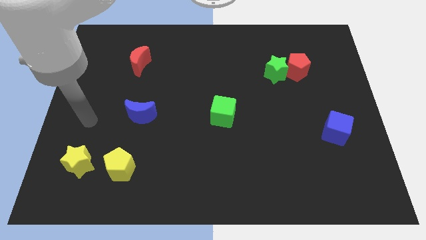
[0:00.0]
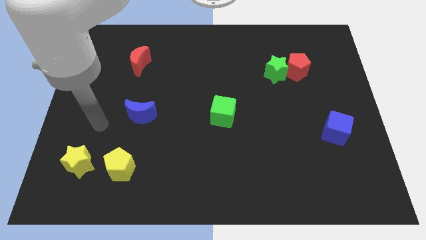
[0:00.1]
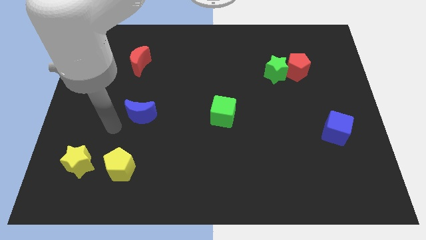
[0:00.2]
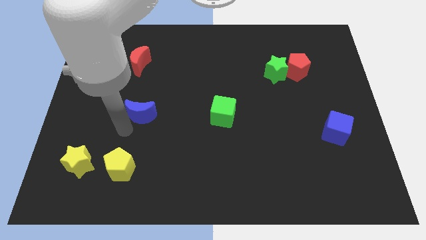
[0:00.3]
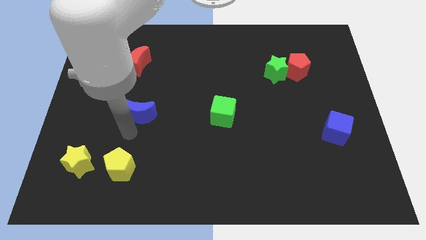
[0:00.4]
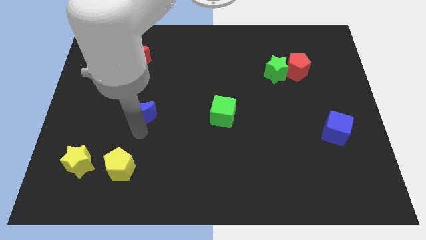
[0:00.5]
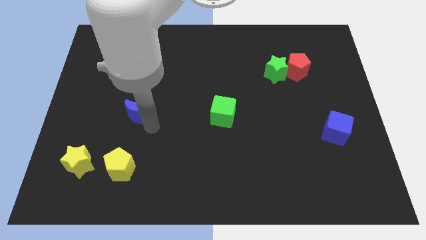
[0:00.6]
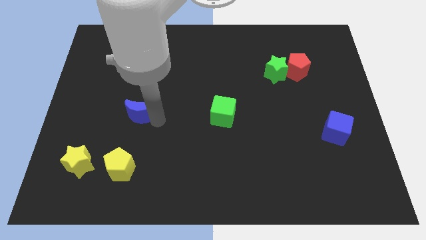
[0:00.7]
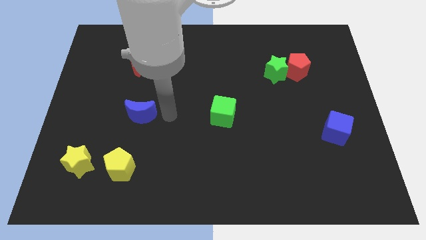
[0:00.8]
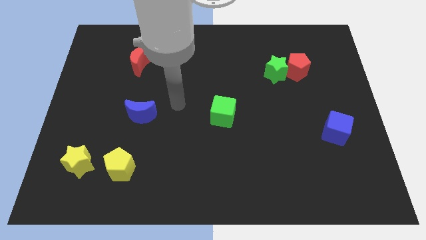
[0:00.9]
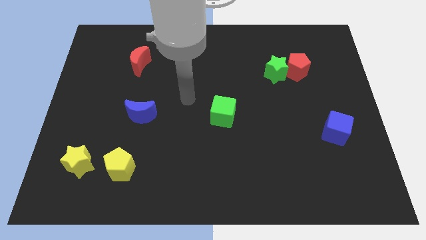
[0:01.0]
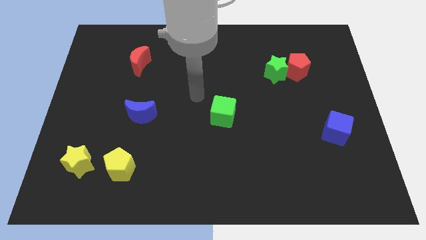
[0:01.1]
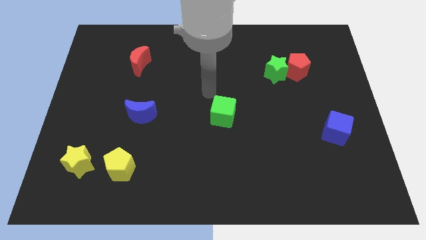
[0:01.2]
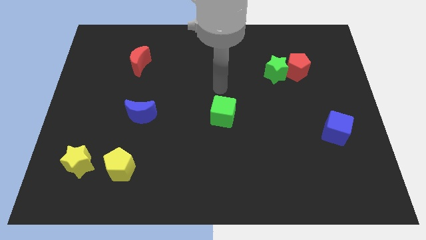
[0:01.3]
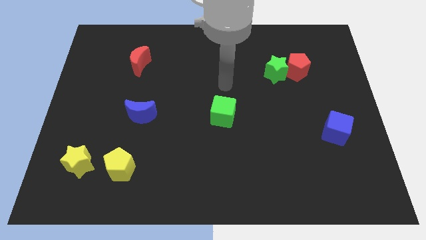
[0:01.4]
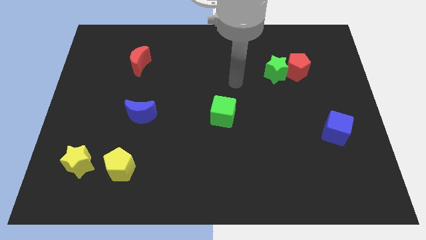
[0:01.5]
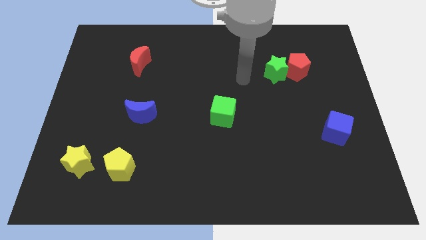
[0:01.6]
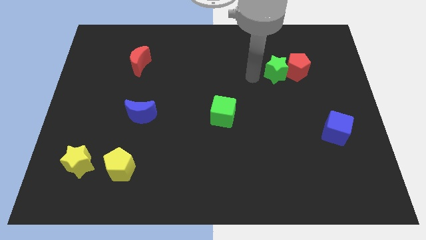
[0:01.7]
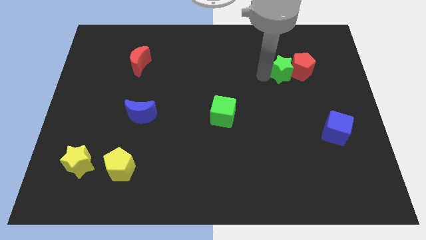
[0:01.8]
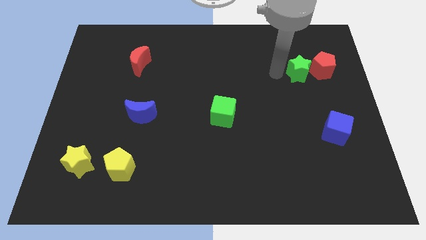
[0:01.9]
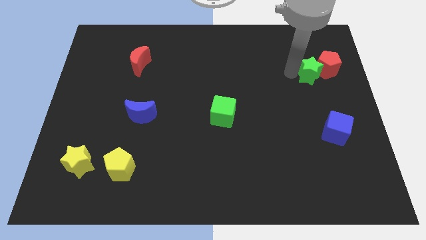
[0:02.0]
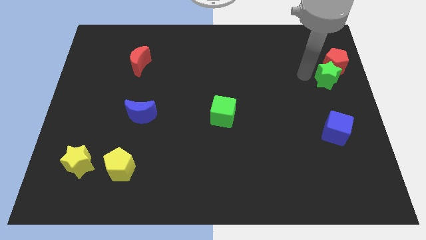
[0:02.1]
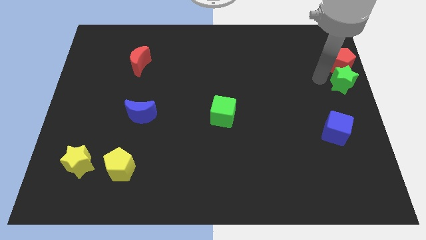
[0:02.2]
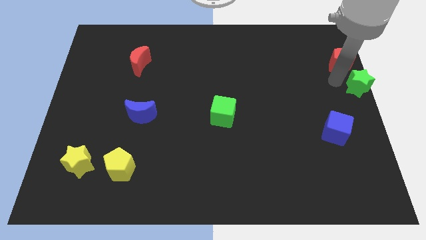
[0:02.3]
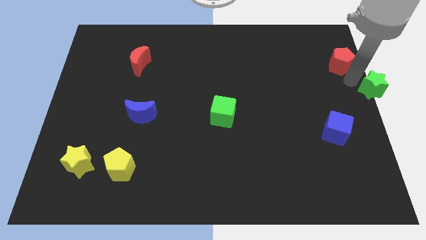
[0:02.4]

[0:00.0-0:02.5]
pull the red pentagon apart from the green star

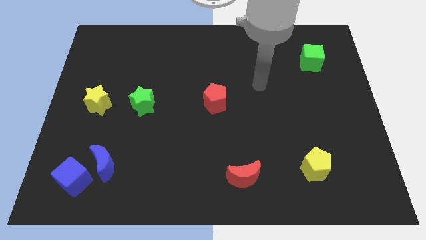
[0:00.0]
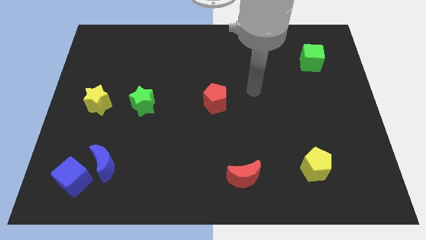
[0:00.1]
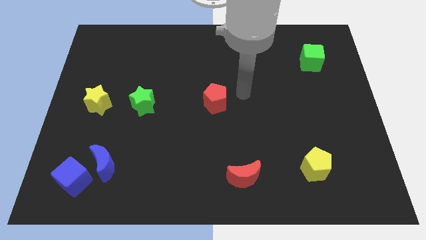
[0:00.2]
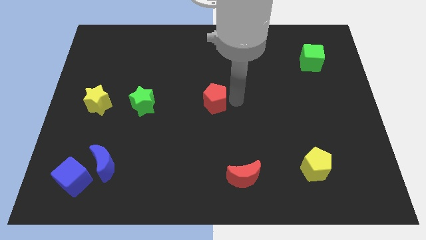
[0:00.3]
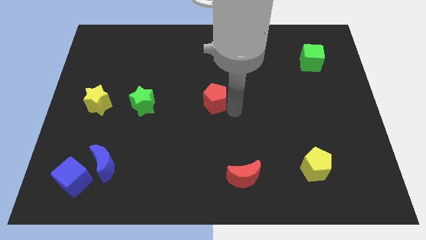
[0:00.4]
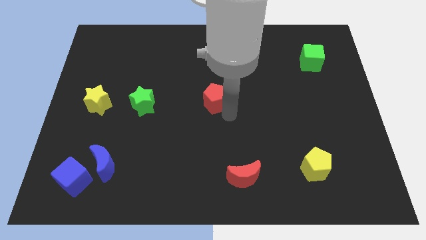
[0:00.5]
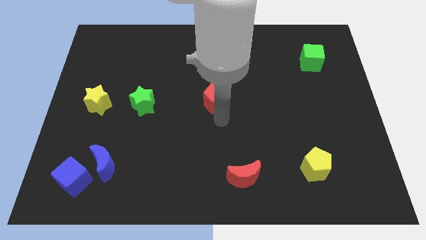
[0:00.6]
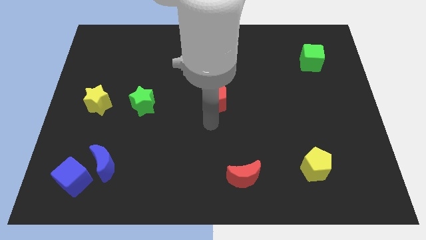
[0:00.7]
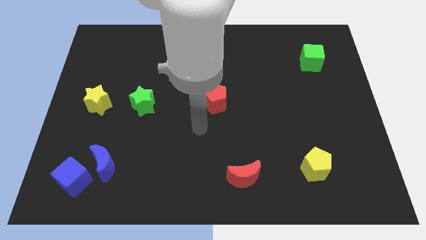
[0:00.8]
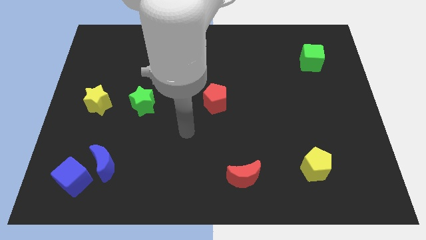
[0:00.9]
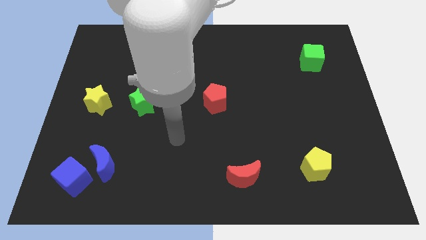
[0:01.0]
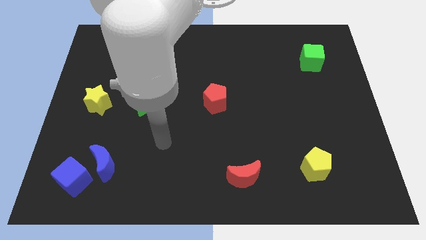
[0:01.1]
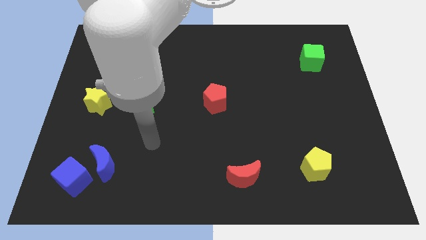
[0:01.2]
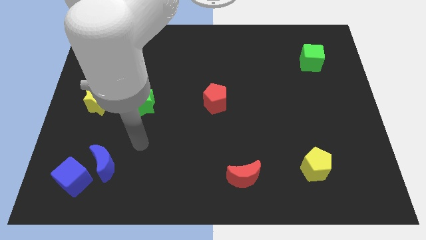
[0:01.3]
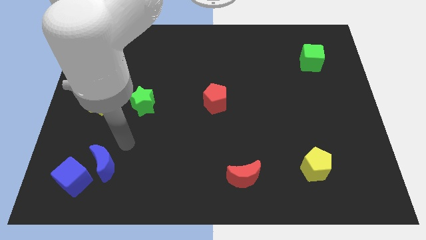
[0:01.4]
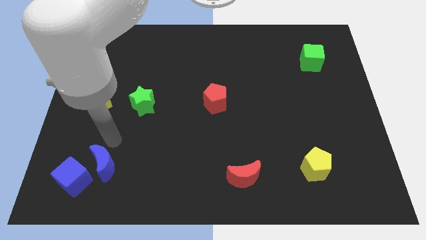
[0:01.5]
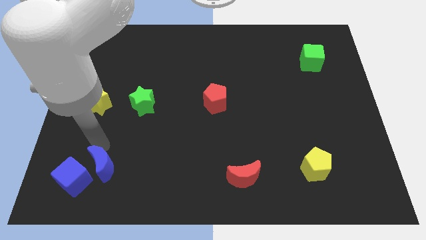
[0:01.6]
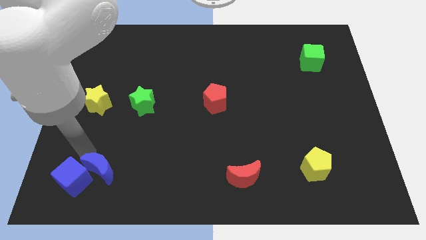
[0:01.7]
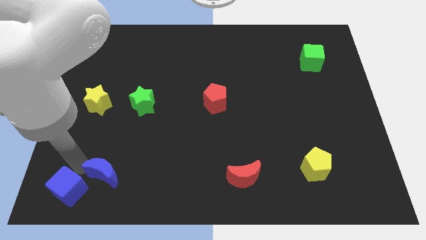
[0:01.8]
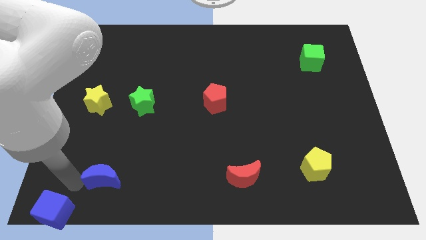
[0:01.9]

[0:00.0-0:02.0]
pull the blue moon apart from the blue cube

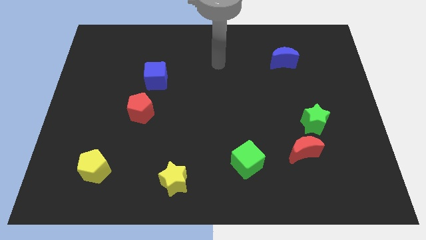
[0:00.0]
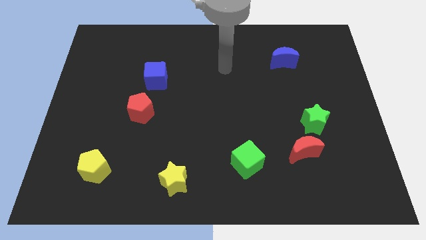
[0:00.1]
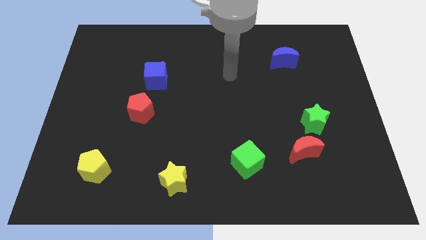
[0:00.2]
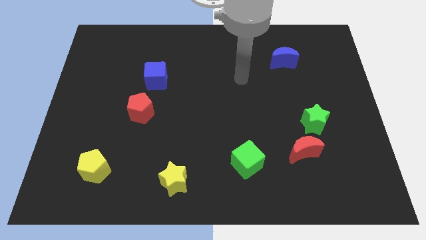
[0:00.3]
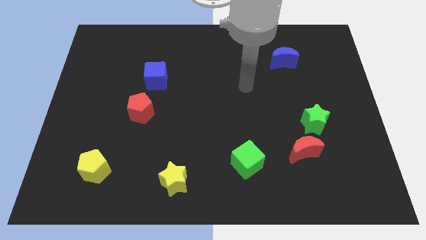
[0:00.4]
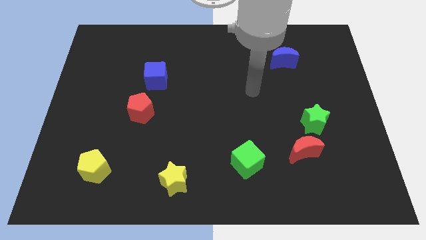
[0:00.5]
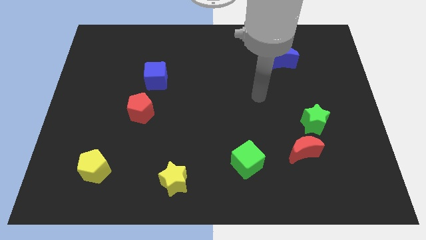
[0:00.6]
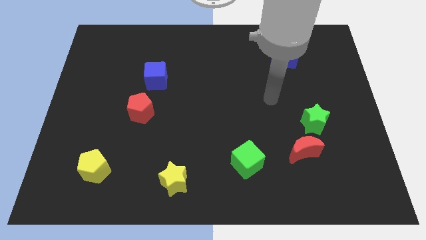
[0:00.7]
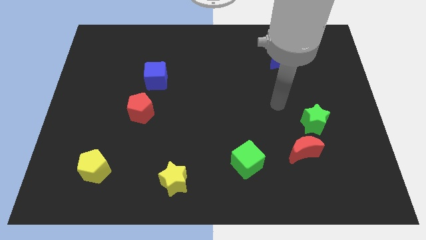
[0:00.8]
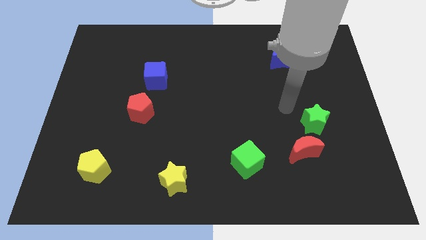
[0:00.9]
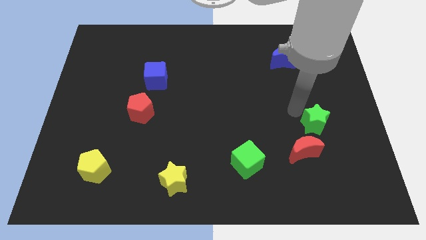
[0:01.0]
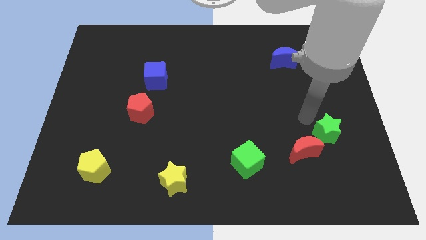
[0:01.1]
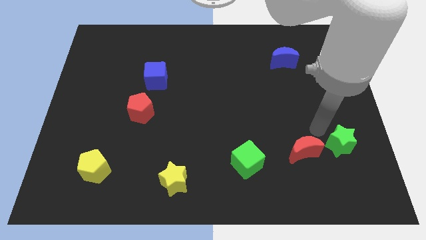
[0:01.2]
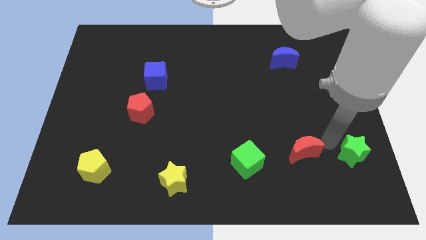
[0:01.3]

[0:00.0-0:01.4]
move the red moon away from the green star

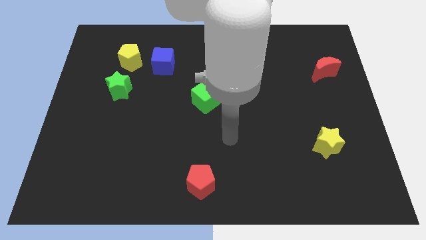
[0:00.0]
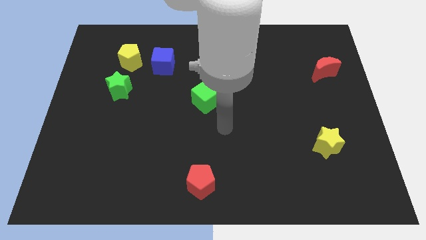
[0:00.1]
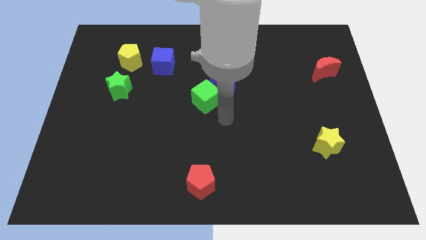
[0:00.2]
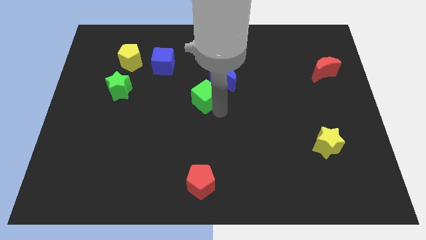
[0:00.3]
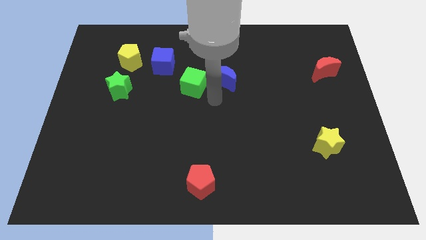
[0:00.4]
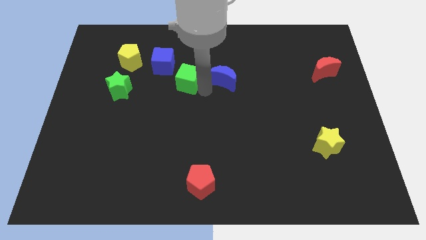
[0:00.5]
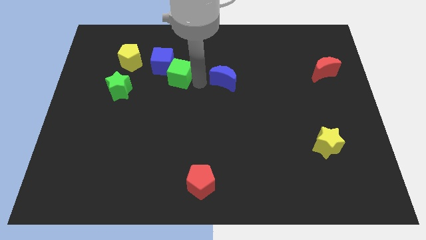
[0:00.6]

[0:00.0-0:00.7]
move the blue moon away from the green cube

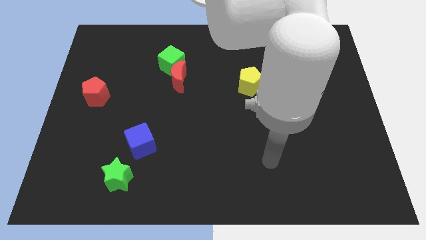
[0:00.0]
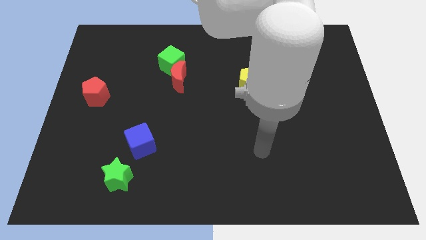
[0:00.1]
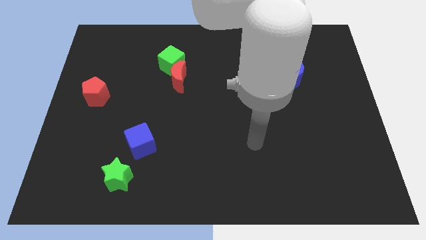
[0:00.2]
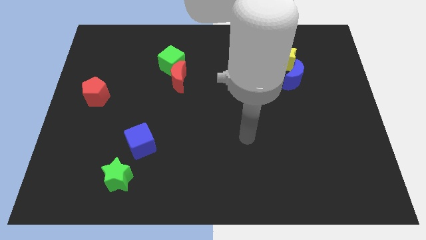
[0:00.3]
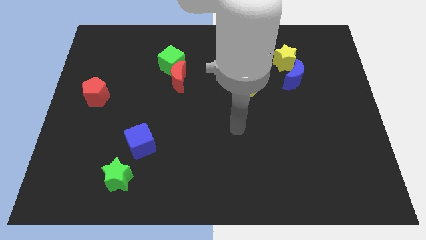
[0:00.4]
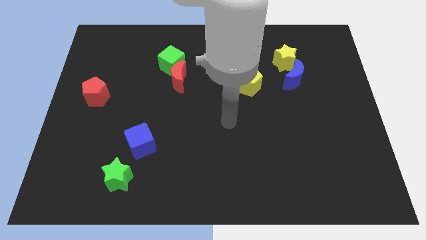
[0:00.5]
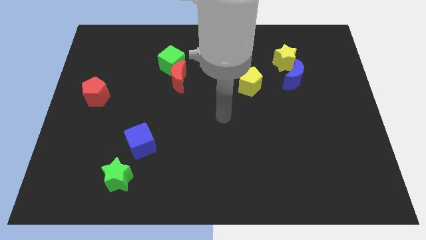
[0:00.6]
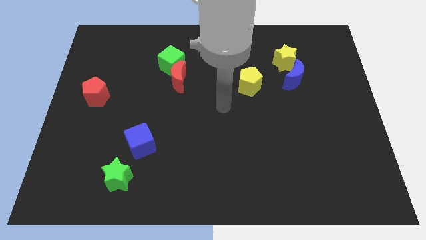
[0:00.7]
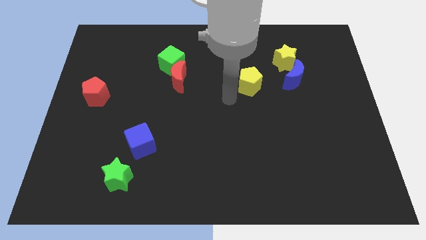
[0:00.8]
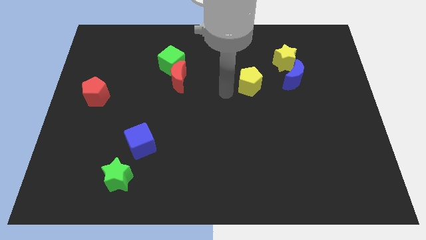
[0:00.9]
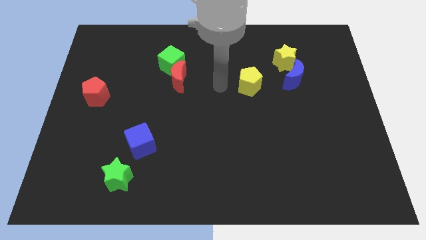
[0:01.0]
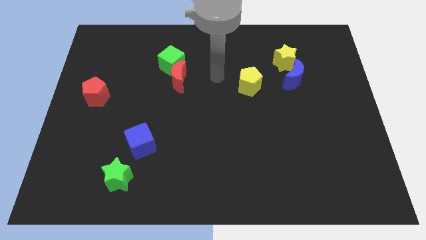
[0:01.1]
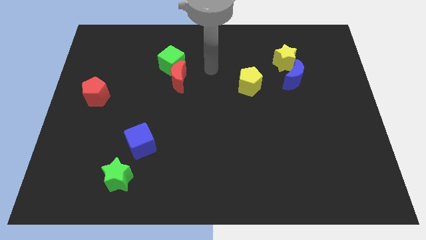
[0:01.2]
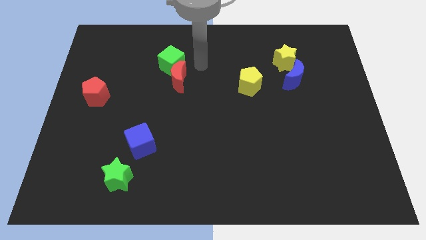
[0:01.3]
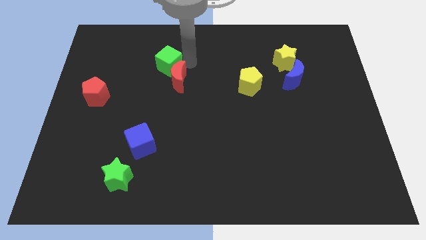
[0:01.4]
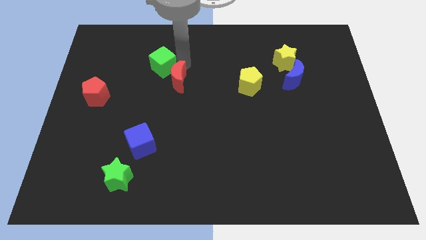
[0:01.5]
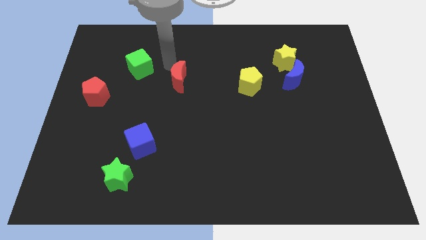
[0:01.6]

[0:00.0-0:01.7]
pull the red moon apart from the green cube

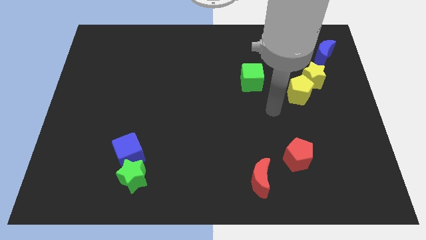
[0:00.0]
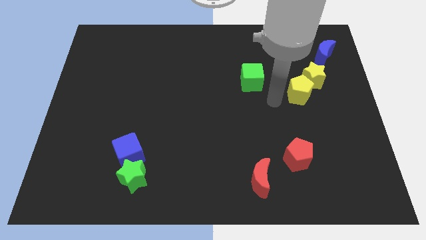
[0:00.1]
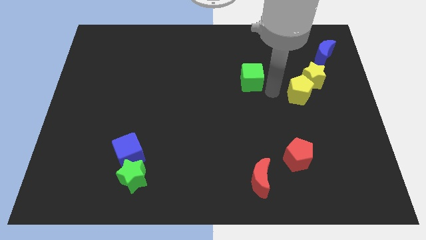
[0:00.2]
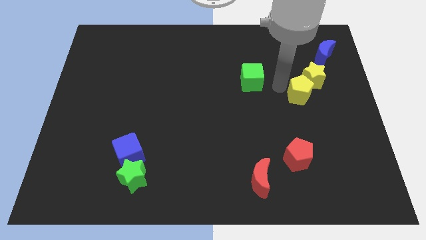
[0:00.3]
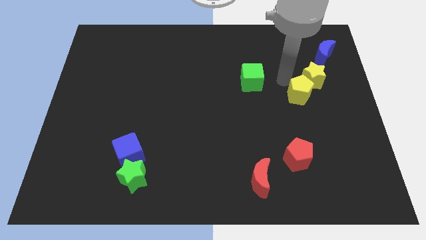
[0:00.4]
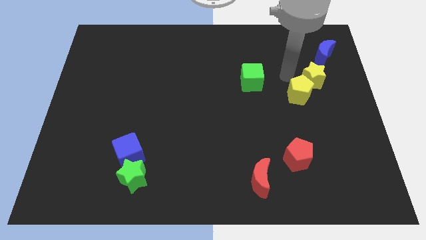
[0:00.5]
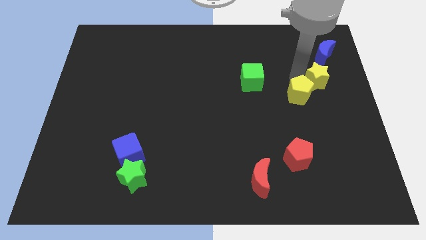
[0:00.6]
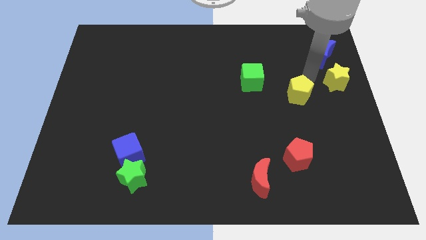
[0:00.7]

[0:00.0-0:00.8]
move the yellow pentagon away from the yellow star

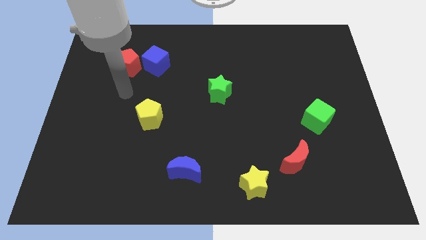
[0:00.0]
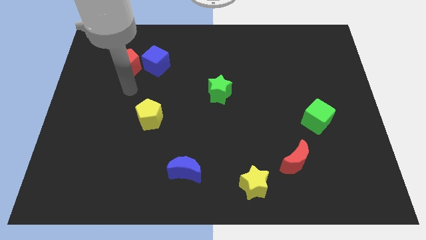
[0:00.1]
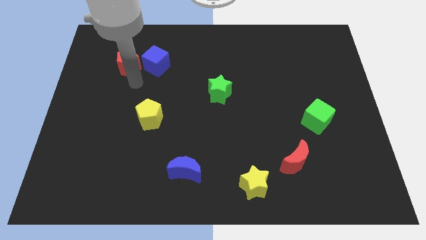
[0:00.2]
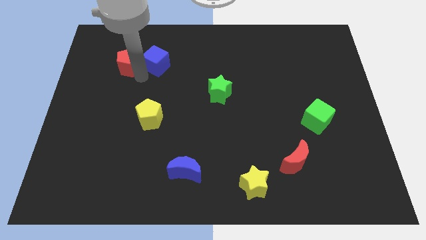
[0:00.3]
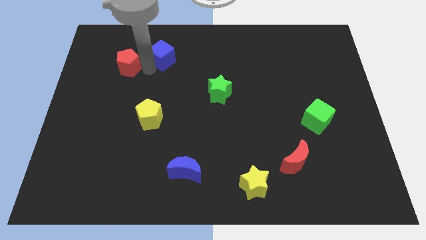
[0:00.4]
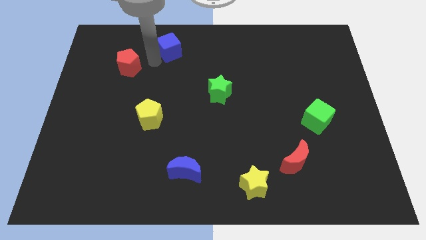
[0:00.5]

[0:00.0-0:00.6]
move the red pentagon away from the blue cube
